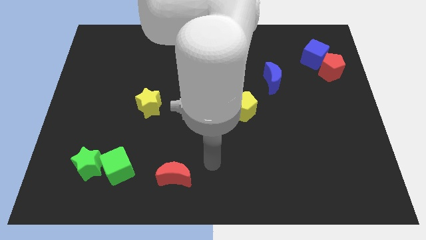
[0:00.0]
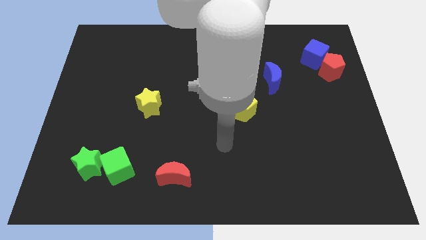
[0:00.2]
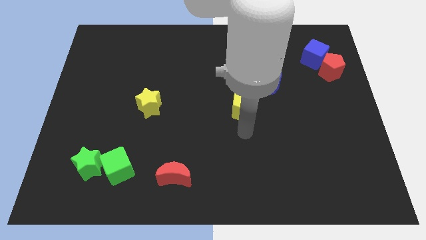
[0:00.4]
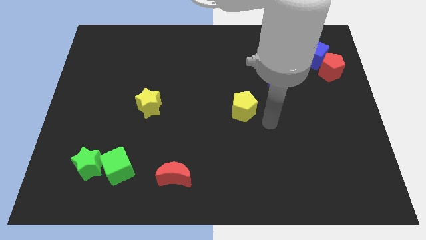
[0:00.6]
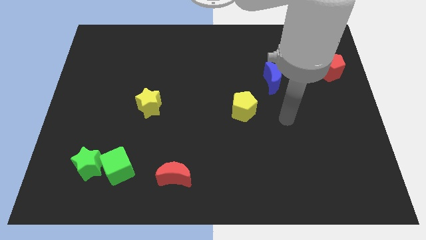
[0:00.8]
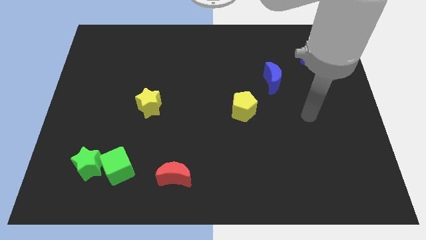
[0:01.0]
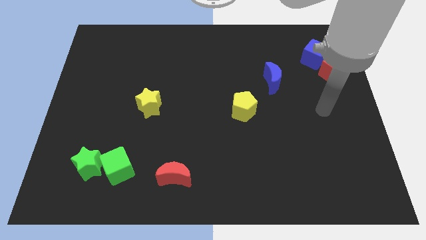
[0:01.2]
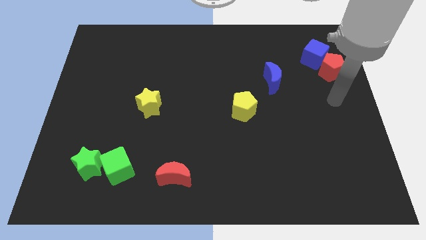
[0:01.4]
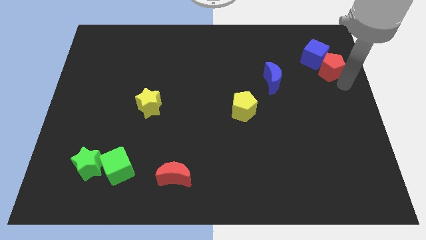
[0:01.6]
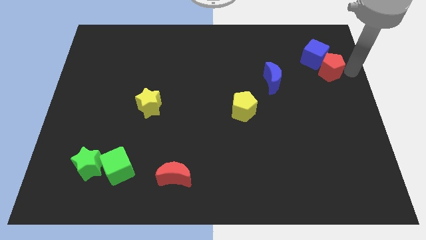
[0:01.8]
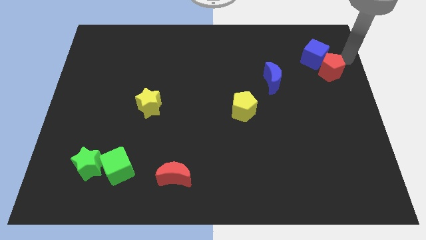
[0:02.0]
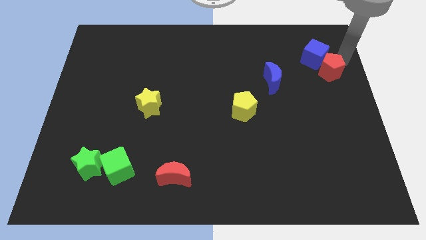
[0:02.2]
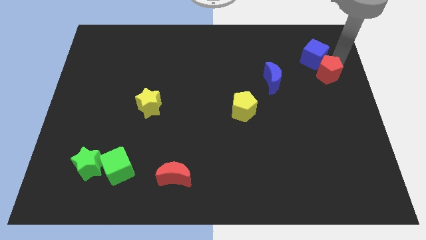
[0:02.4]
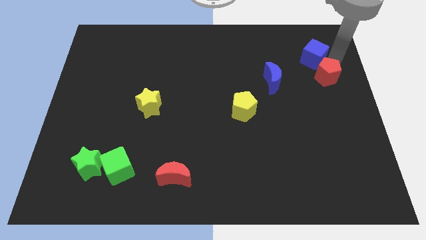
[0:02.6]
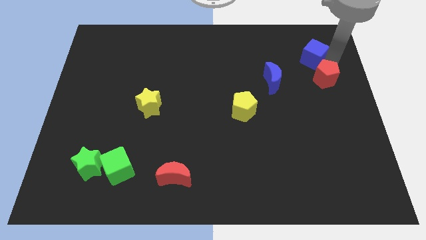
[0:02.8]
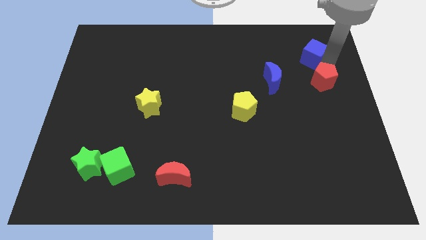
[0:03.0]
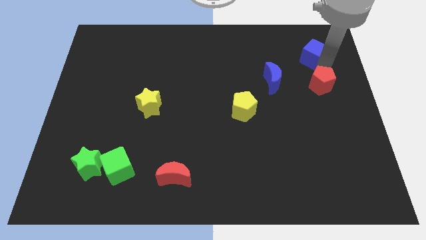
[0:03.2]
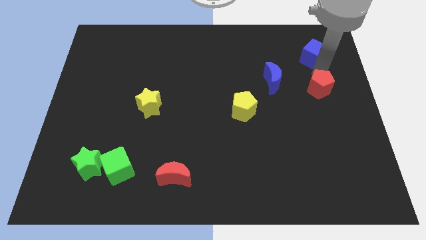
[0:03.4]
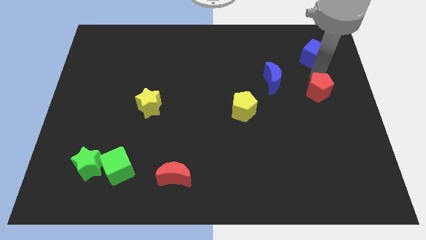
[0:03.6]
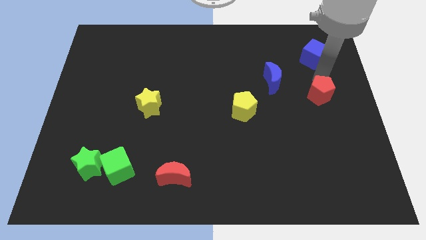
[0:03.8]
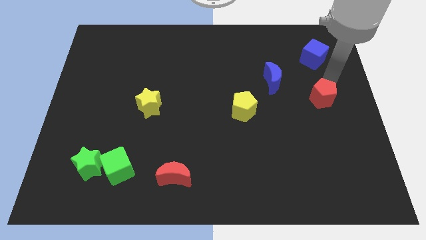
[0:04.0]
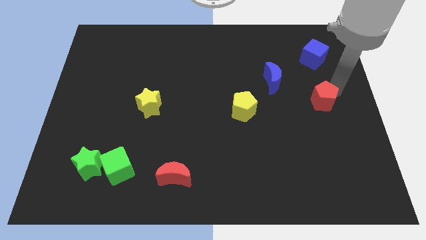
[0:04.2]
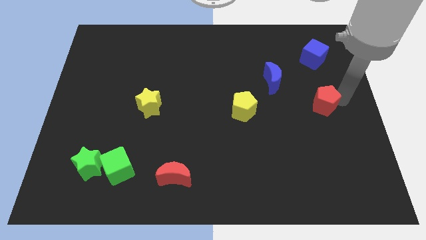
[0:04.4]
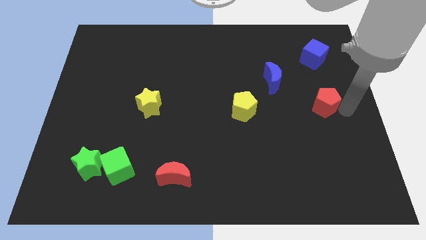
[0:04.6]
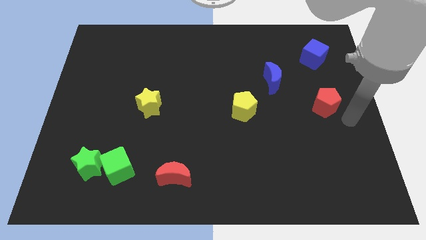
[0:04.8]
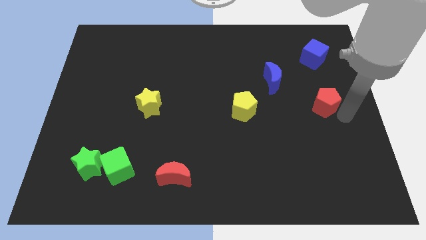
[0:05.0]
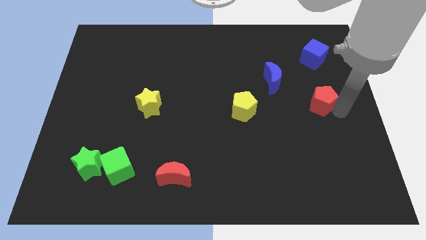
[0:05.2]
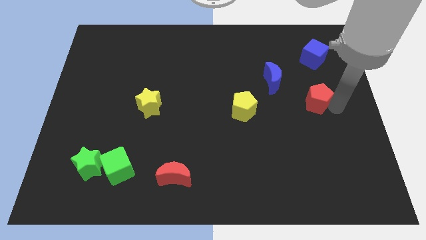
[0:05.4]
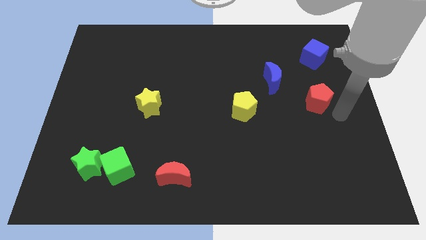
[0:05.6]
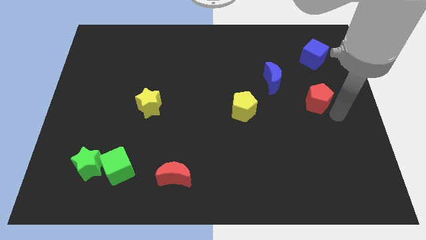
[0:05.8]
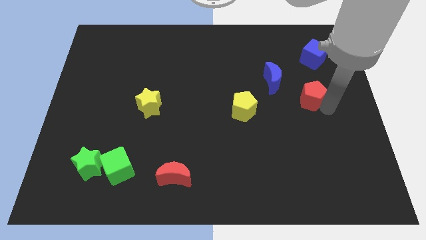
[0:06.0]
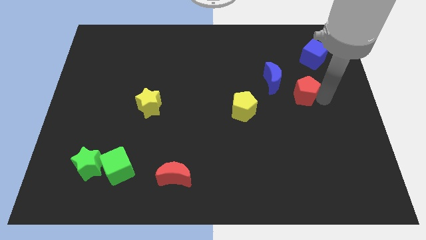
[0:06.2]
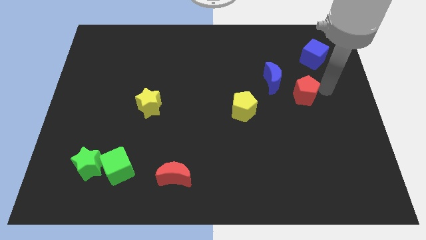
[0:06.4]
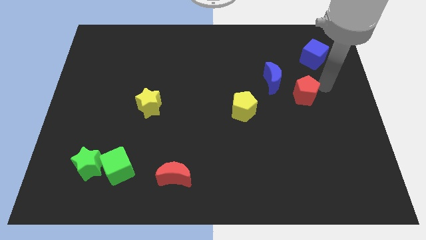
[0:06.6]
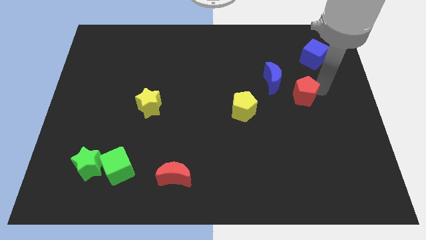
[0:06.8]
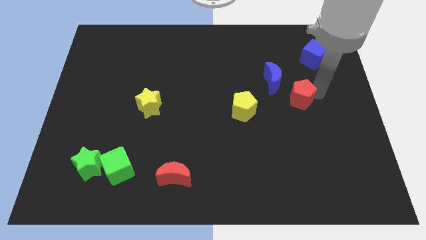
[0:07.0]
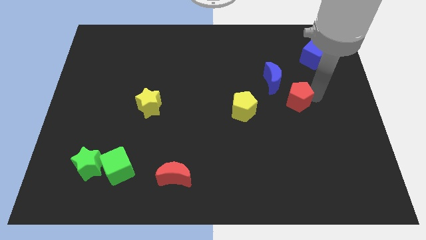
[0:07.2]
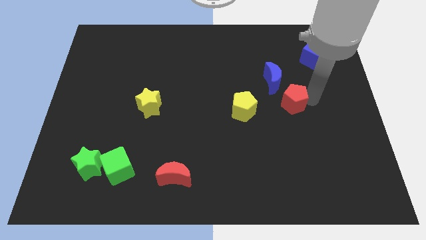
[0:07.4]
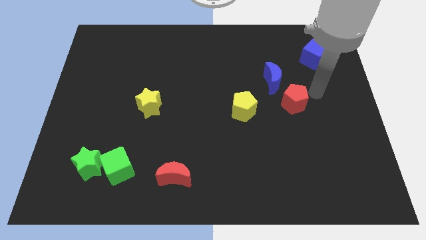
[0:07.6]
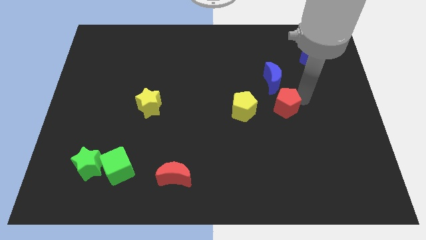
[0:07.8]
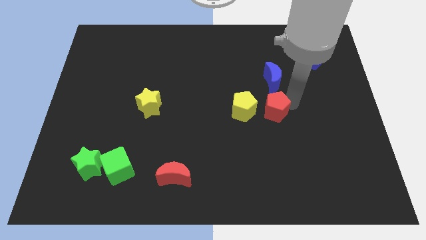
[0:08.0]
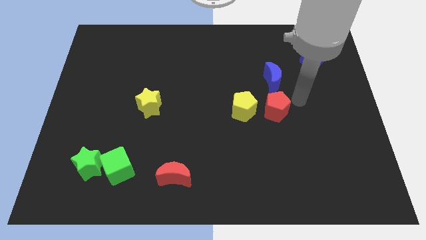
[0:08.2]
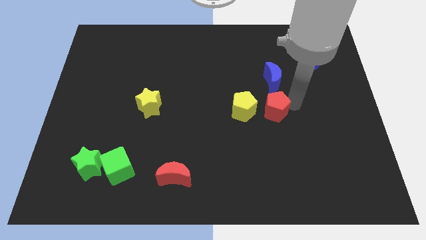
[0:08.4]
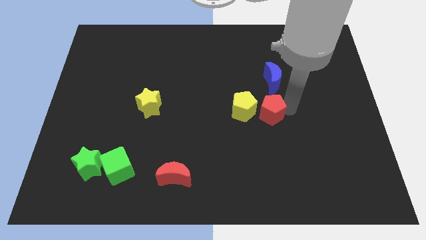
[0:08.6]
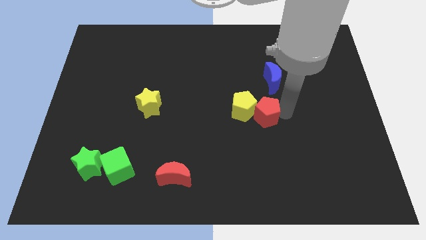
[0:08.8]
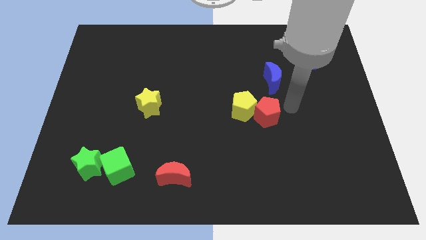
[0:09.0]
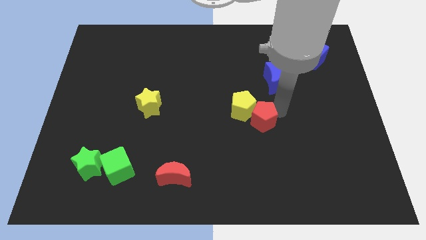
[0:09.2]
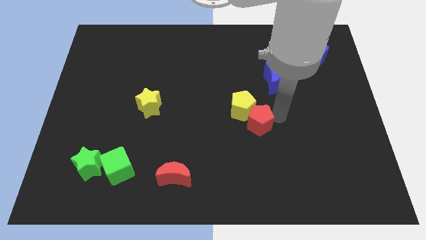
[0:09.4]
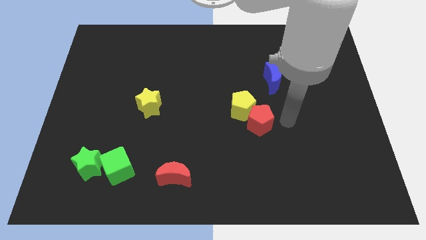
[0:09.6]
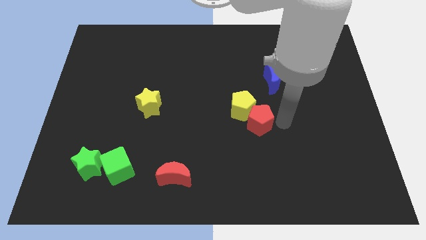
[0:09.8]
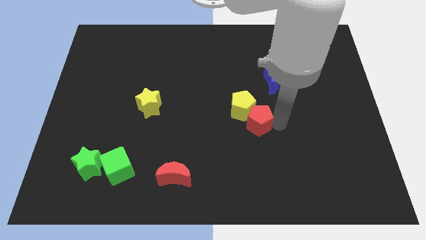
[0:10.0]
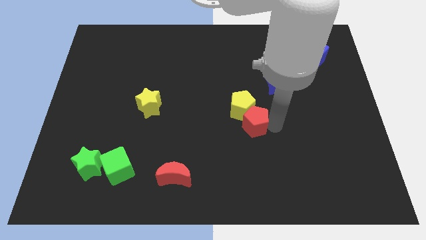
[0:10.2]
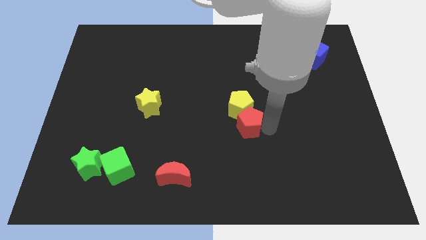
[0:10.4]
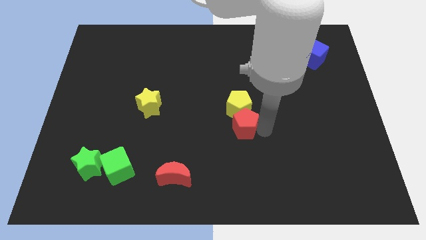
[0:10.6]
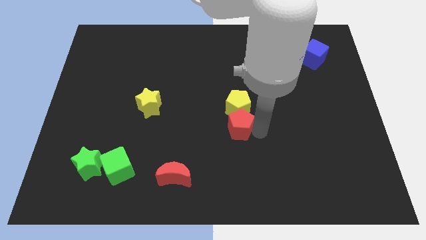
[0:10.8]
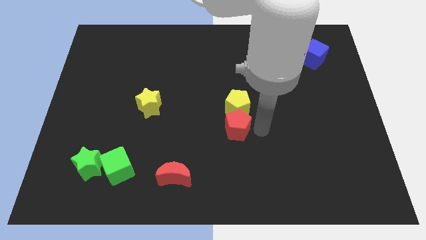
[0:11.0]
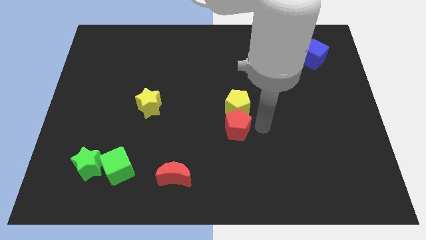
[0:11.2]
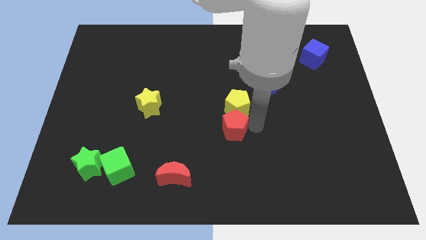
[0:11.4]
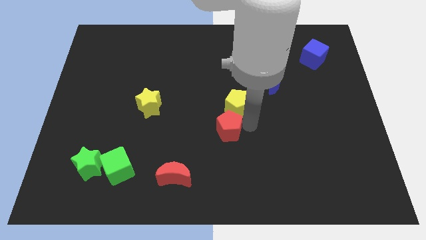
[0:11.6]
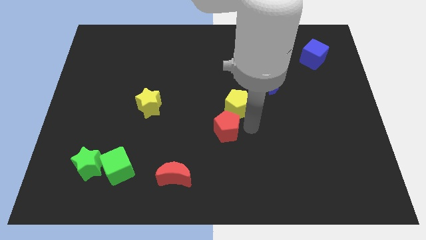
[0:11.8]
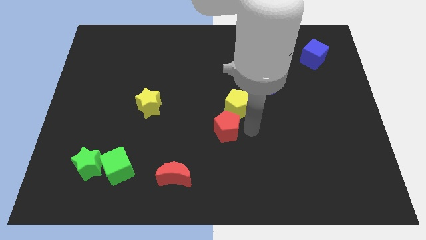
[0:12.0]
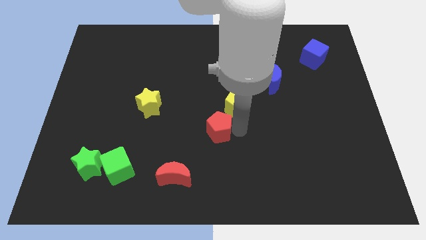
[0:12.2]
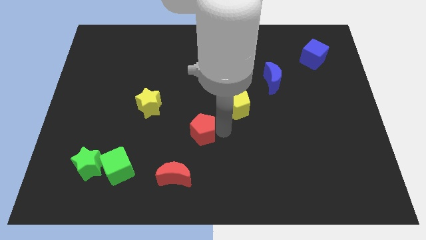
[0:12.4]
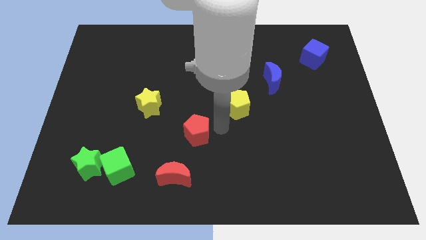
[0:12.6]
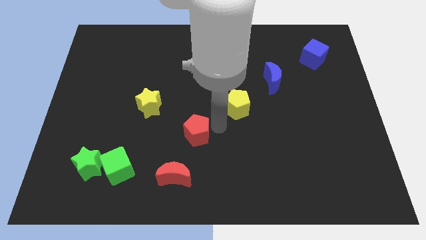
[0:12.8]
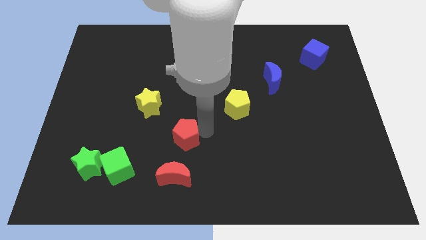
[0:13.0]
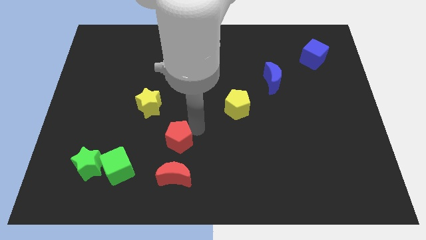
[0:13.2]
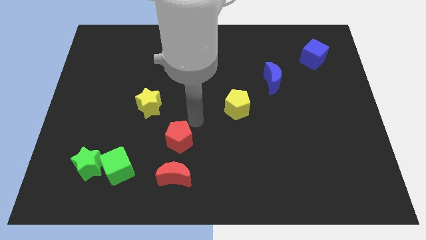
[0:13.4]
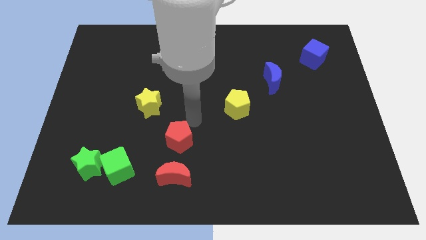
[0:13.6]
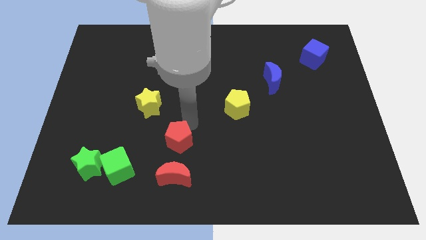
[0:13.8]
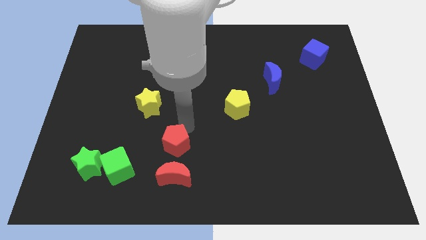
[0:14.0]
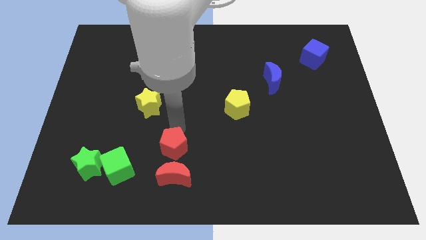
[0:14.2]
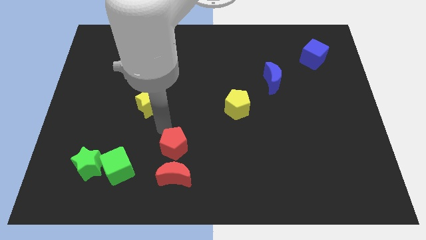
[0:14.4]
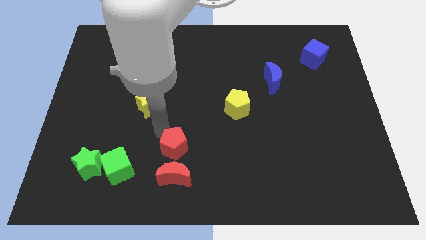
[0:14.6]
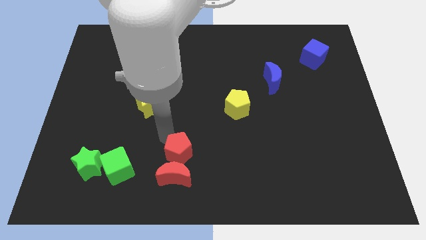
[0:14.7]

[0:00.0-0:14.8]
move the red pentagon to the right side of the green cube
